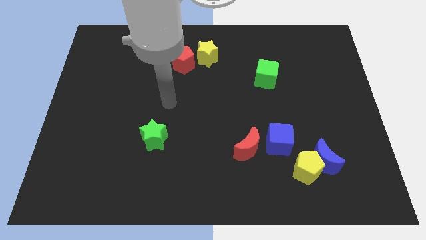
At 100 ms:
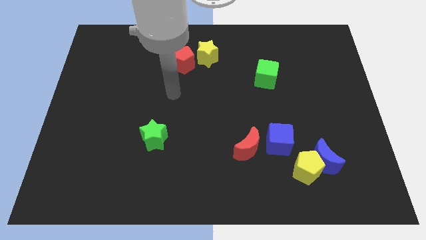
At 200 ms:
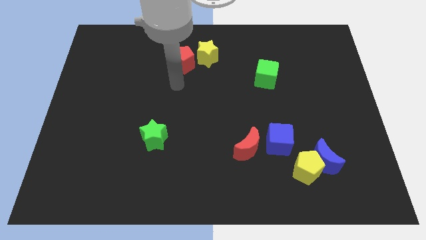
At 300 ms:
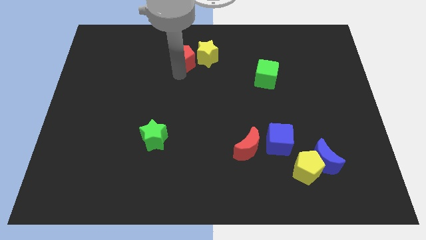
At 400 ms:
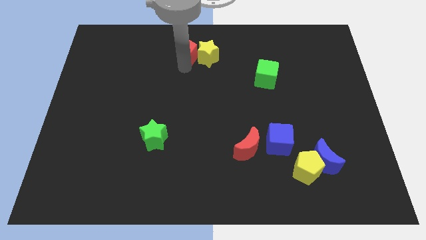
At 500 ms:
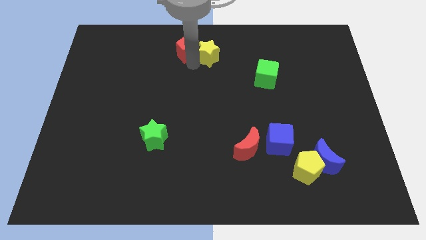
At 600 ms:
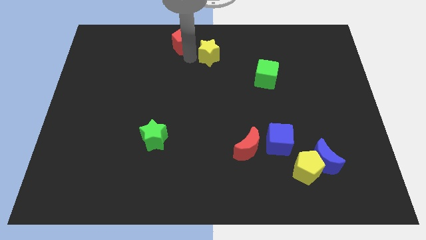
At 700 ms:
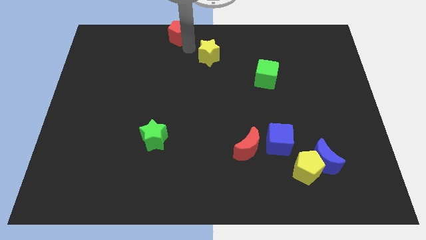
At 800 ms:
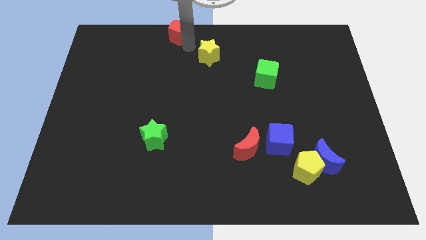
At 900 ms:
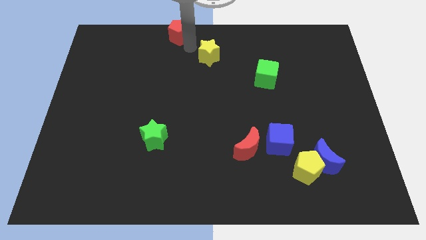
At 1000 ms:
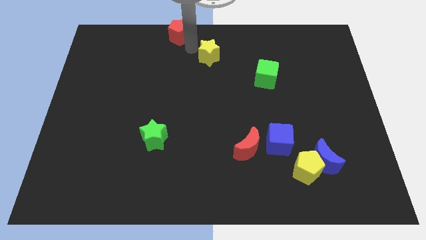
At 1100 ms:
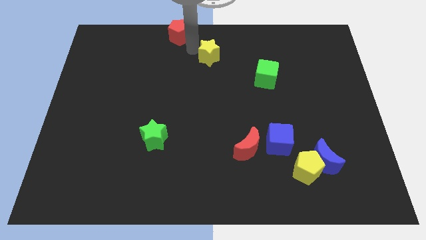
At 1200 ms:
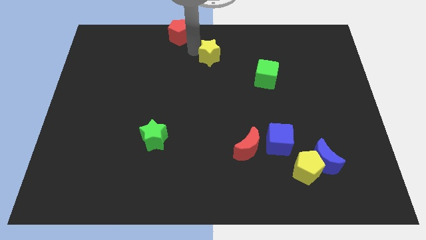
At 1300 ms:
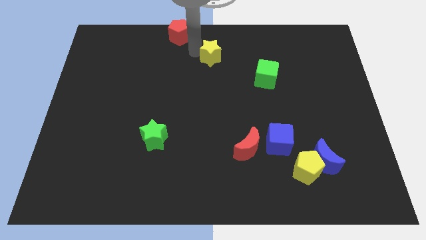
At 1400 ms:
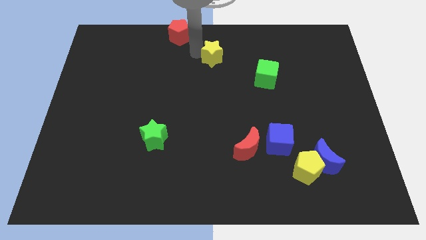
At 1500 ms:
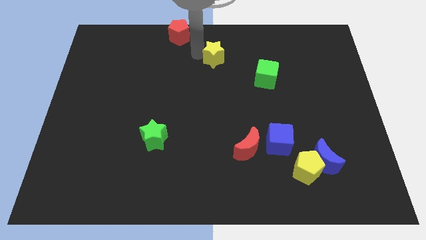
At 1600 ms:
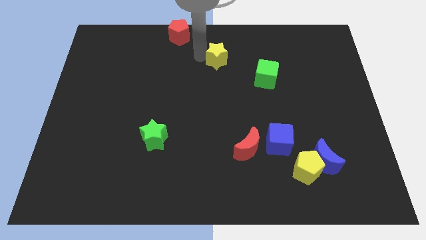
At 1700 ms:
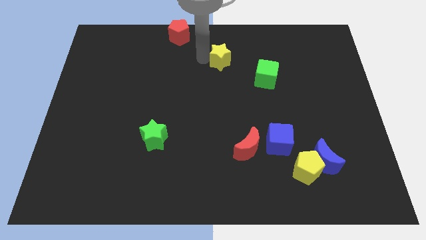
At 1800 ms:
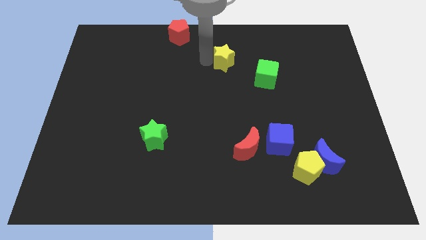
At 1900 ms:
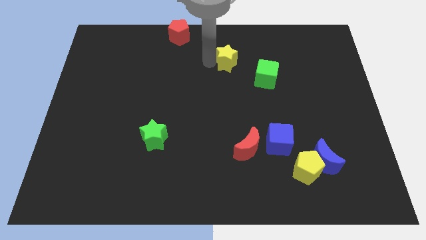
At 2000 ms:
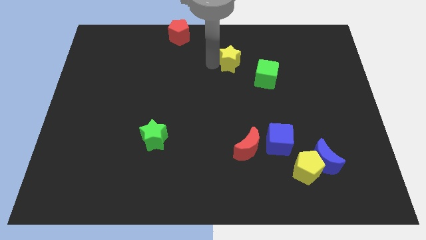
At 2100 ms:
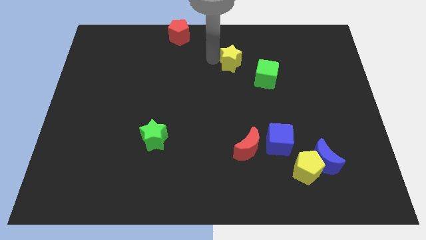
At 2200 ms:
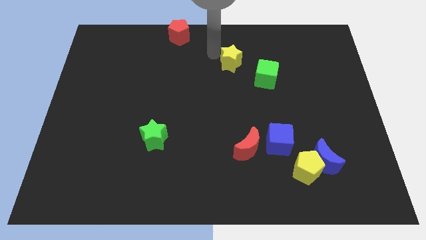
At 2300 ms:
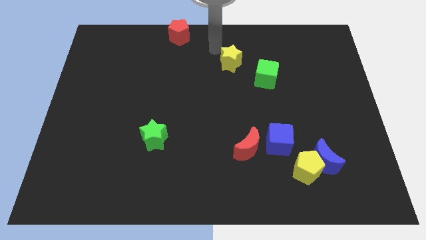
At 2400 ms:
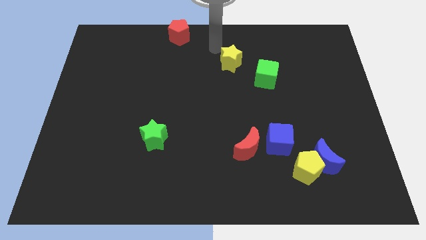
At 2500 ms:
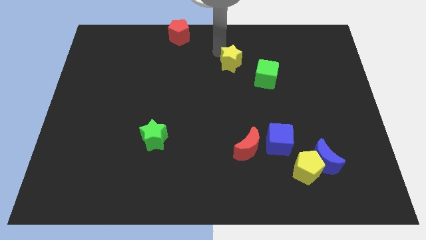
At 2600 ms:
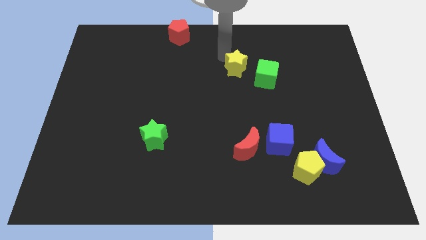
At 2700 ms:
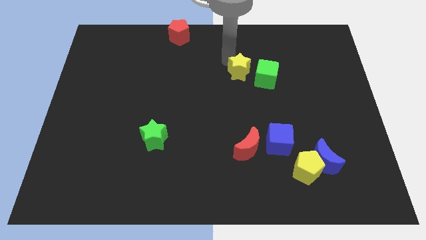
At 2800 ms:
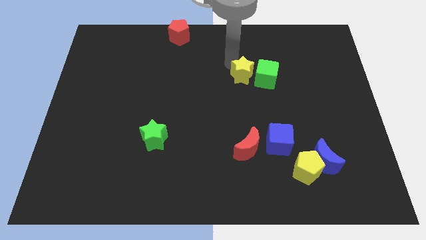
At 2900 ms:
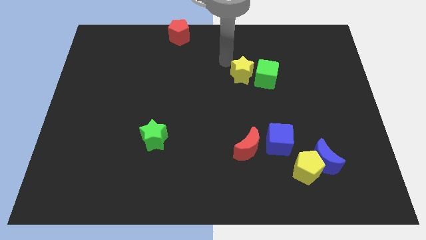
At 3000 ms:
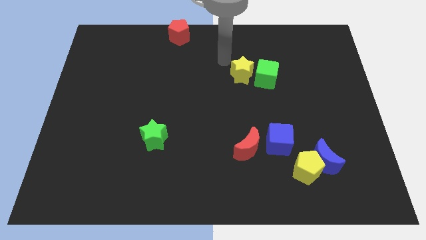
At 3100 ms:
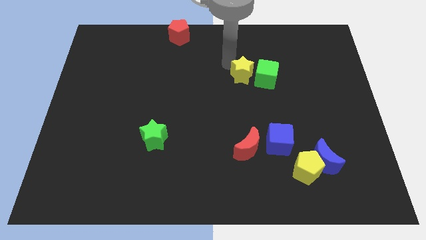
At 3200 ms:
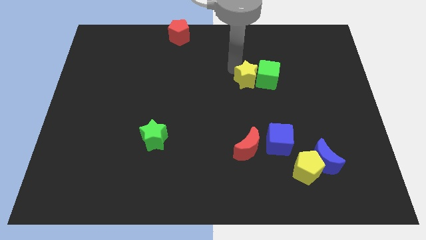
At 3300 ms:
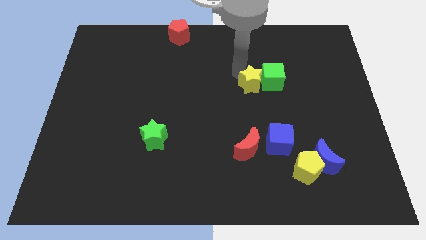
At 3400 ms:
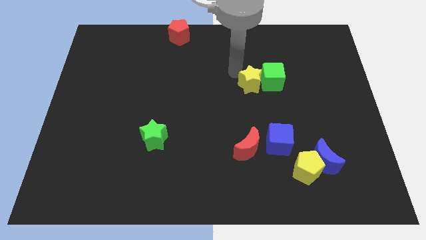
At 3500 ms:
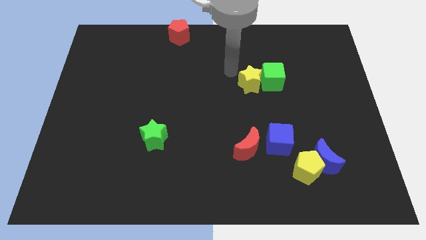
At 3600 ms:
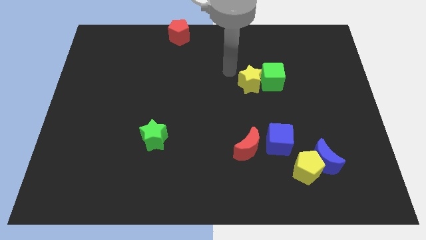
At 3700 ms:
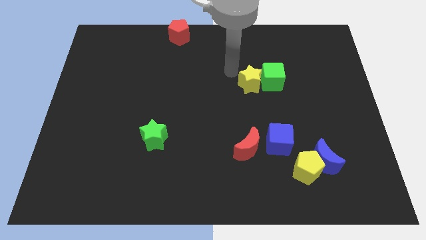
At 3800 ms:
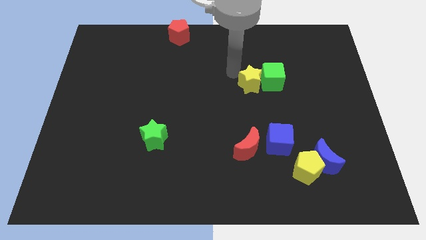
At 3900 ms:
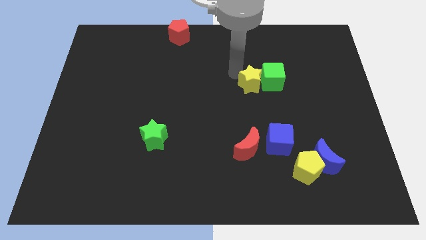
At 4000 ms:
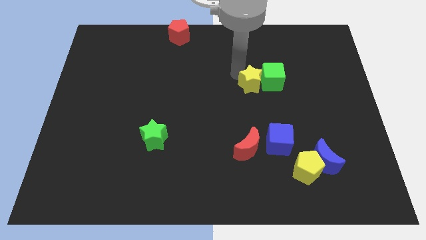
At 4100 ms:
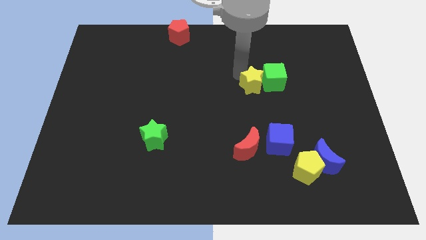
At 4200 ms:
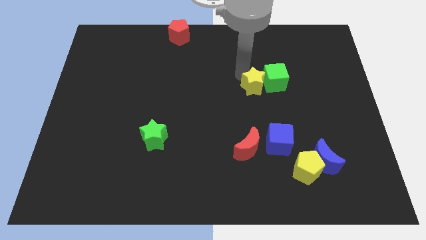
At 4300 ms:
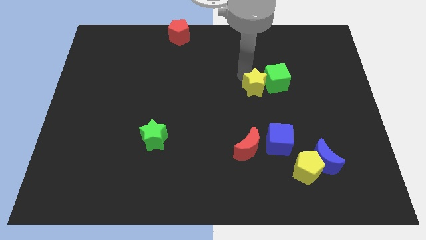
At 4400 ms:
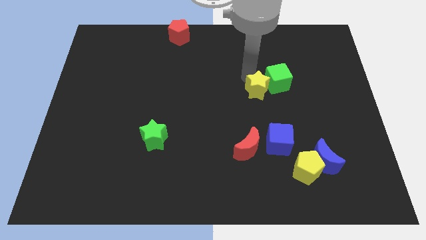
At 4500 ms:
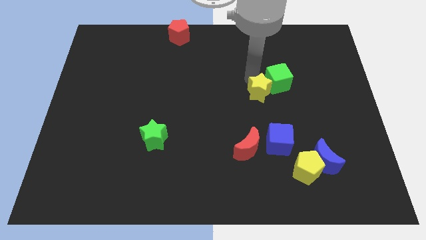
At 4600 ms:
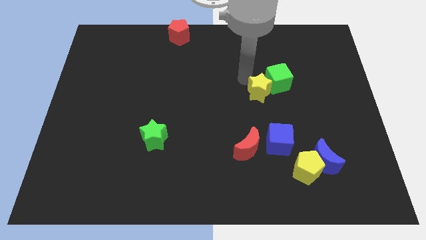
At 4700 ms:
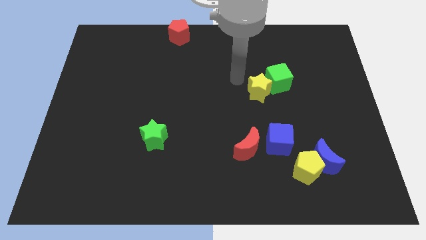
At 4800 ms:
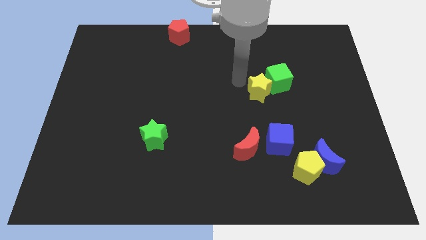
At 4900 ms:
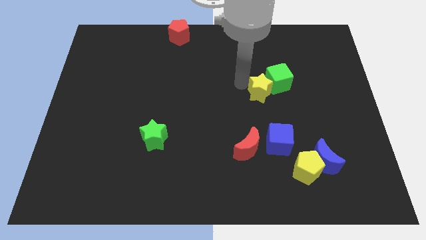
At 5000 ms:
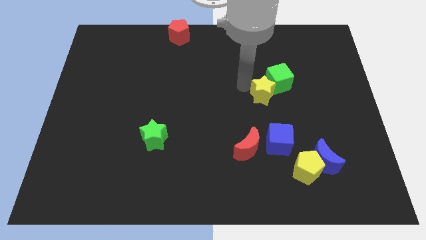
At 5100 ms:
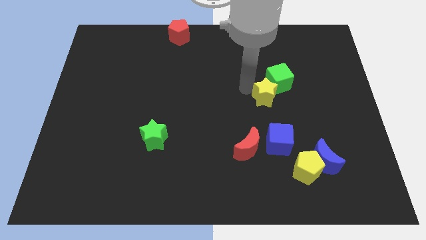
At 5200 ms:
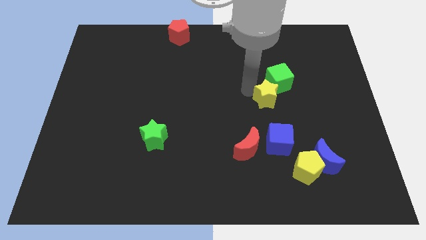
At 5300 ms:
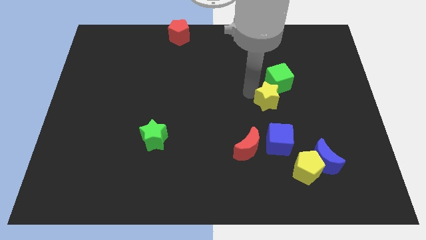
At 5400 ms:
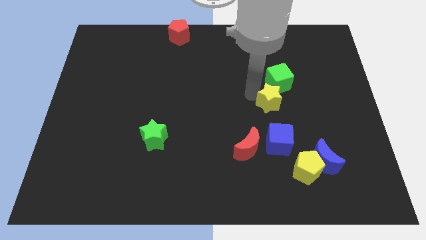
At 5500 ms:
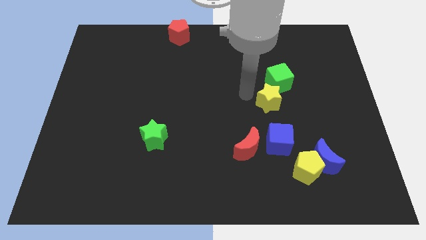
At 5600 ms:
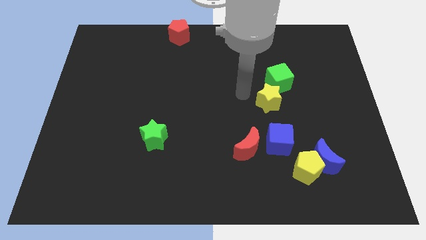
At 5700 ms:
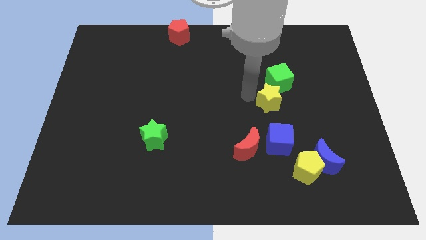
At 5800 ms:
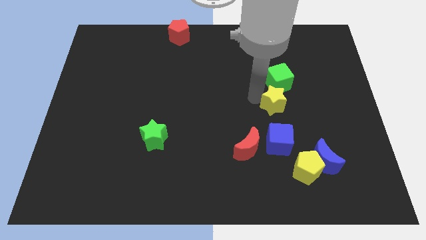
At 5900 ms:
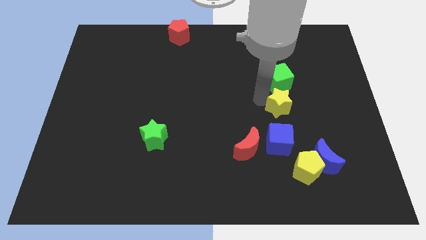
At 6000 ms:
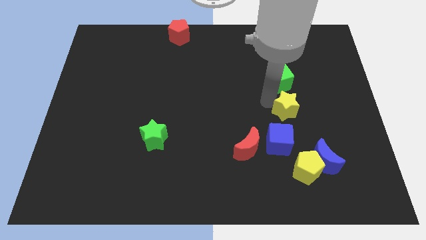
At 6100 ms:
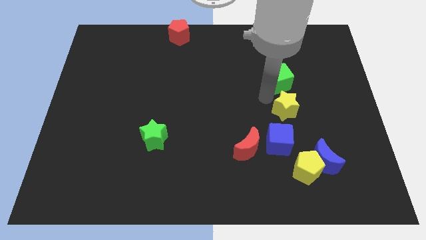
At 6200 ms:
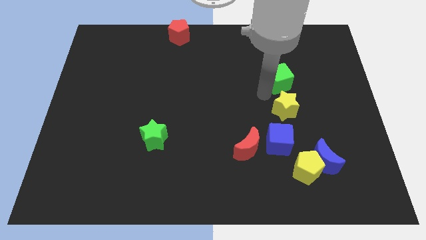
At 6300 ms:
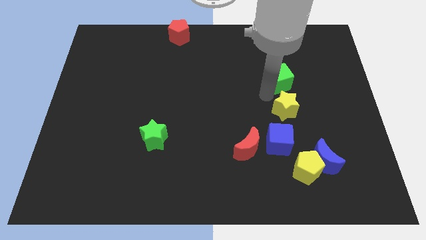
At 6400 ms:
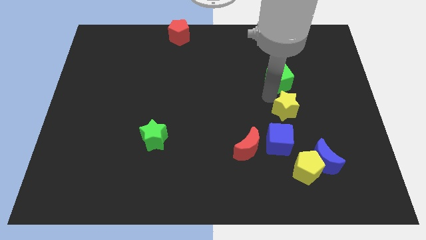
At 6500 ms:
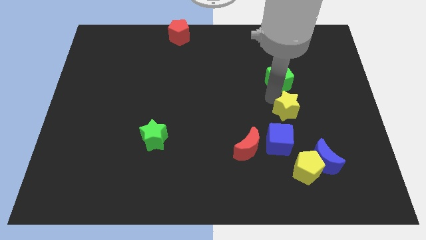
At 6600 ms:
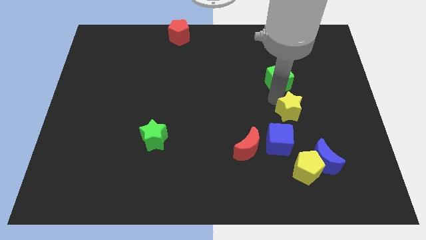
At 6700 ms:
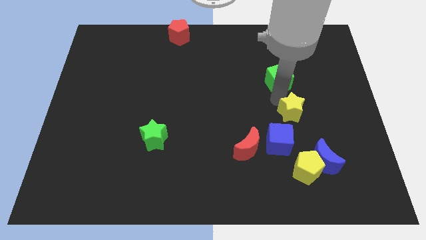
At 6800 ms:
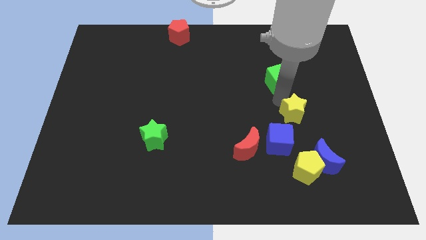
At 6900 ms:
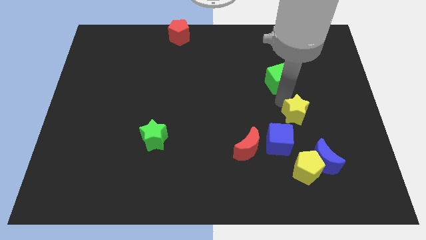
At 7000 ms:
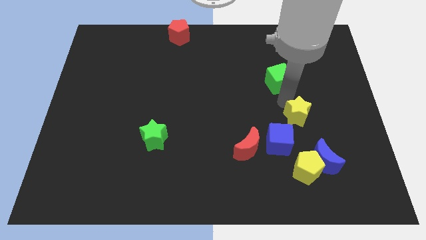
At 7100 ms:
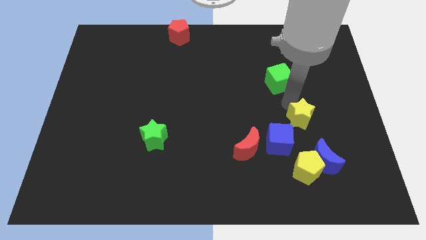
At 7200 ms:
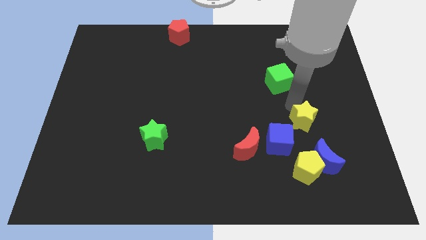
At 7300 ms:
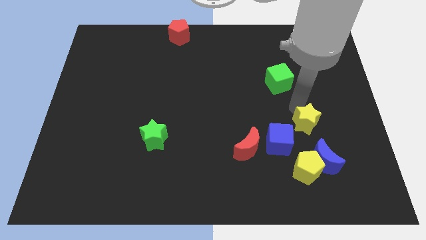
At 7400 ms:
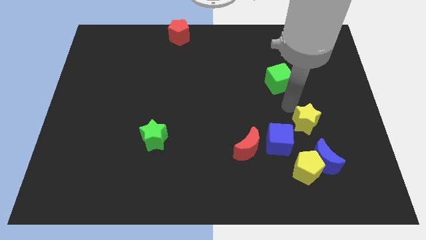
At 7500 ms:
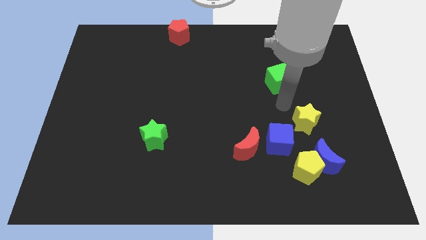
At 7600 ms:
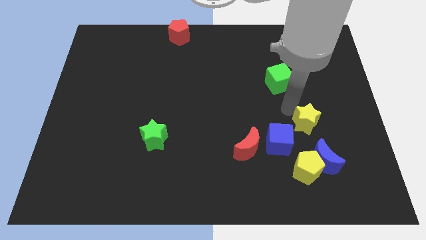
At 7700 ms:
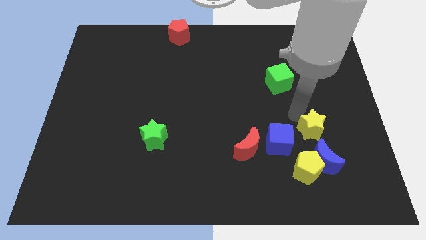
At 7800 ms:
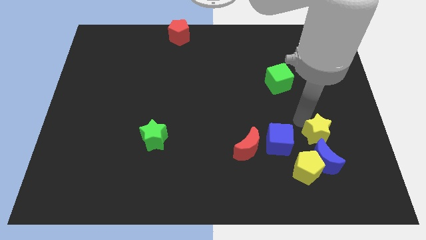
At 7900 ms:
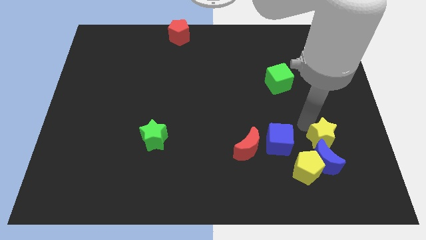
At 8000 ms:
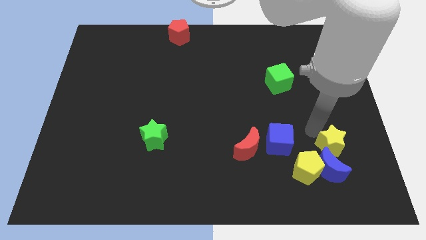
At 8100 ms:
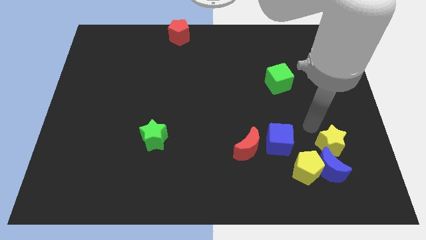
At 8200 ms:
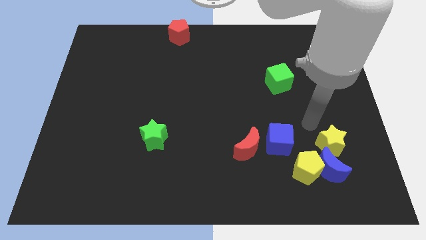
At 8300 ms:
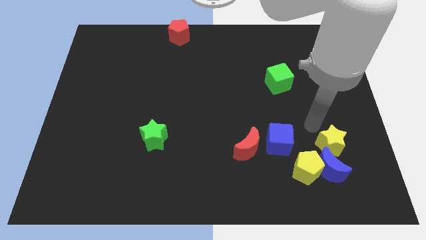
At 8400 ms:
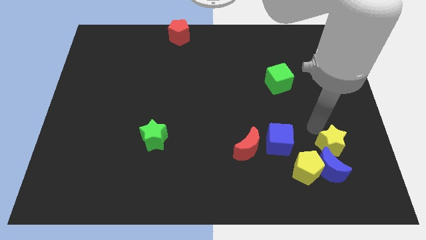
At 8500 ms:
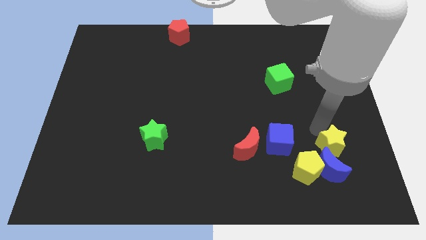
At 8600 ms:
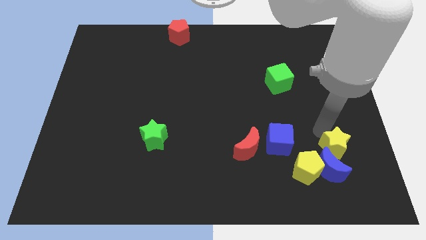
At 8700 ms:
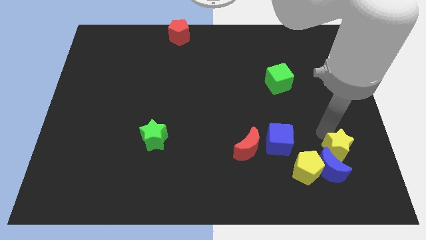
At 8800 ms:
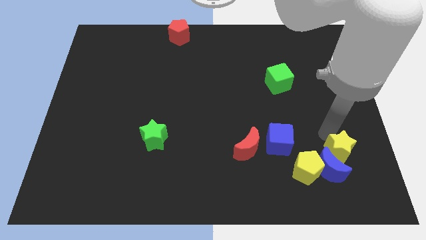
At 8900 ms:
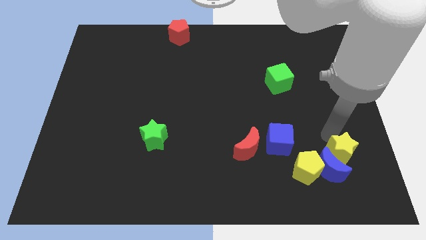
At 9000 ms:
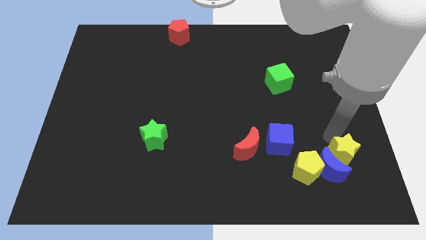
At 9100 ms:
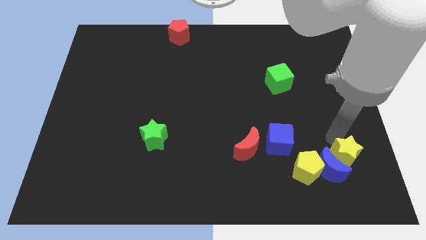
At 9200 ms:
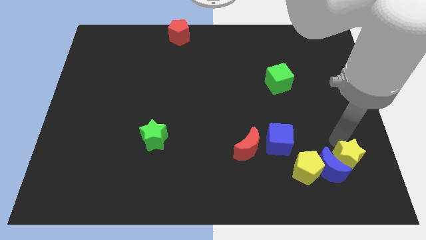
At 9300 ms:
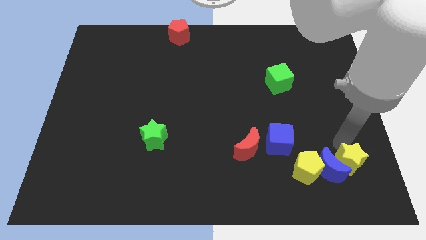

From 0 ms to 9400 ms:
move the yellow star to the bottom right of the blue moon
